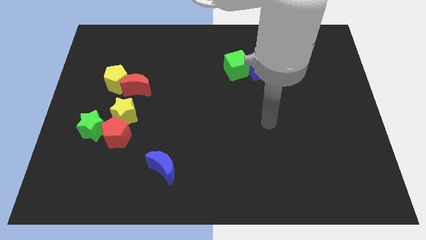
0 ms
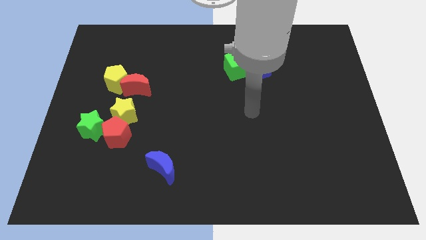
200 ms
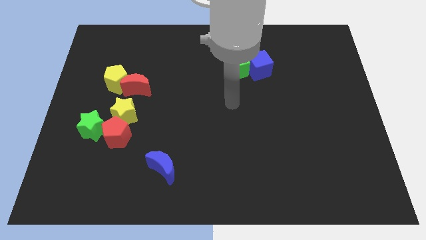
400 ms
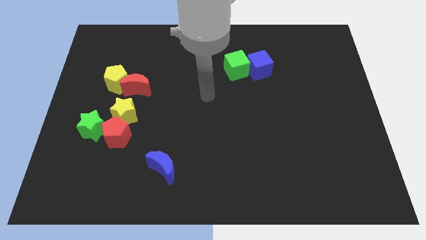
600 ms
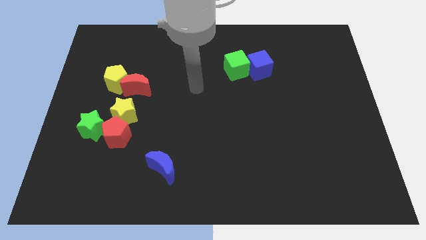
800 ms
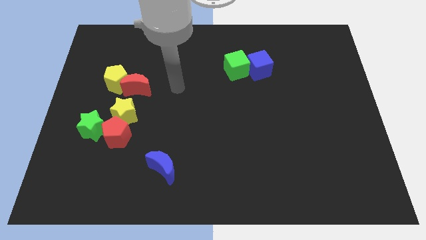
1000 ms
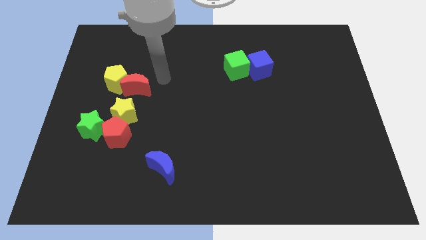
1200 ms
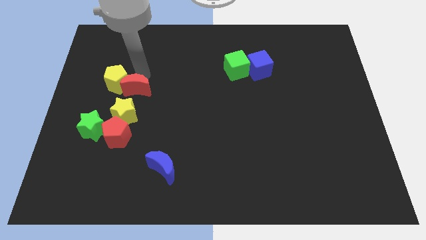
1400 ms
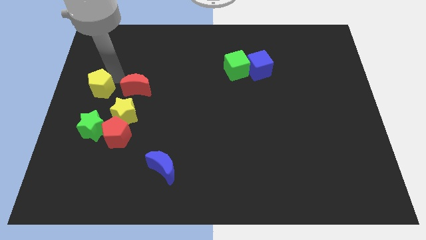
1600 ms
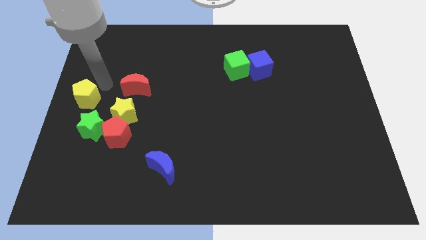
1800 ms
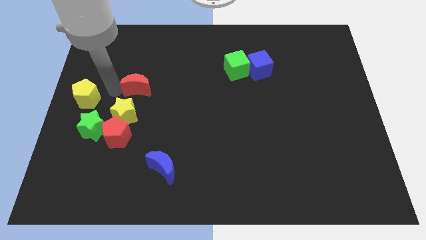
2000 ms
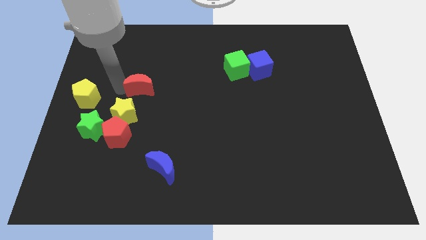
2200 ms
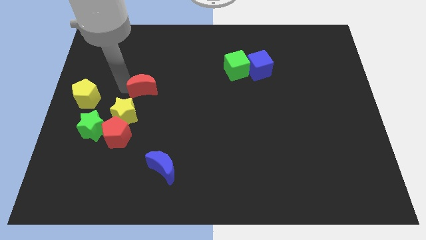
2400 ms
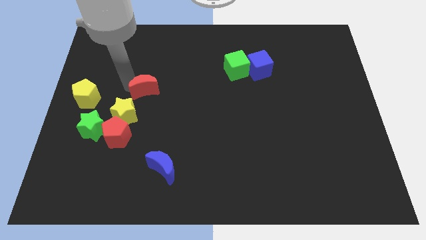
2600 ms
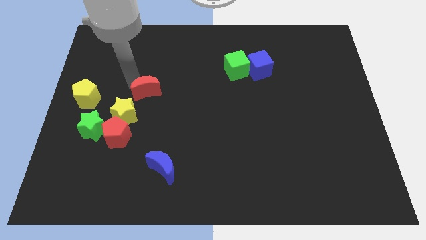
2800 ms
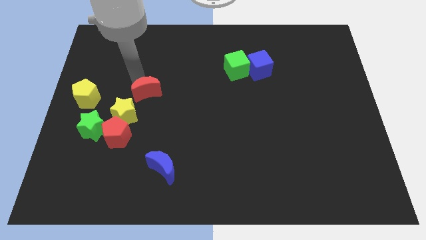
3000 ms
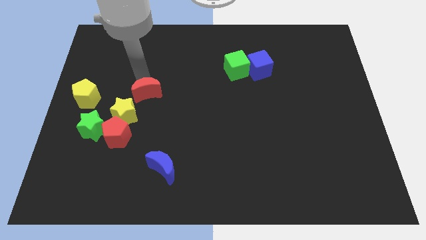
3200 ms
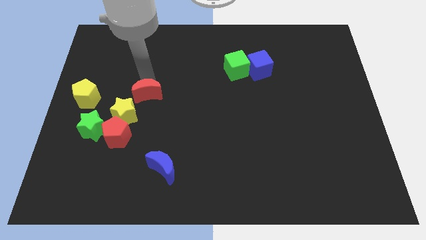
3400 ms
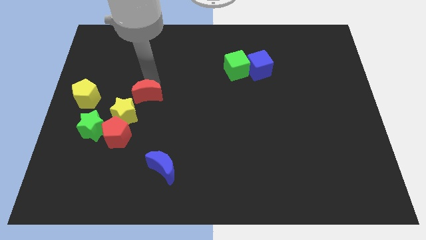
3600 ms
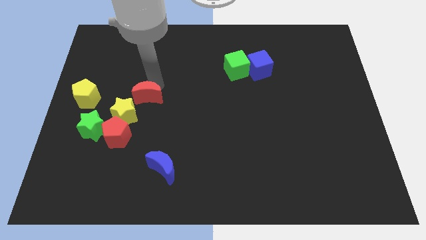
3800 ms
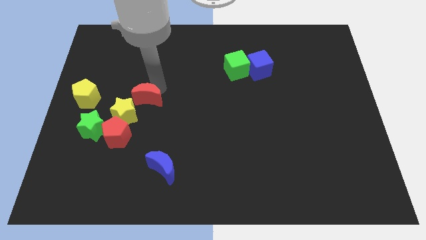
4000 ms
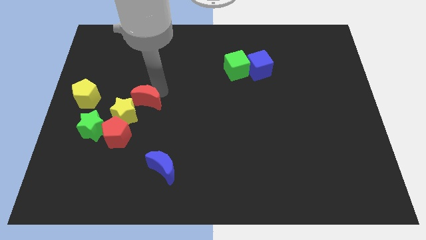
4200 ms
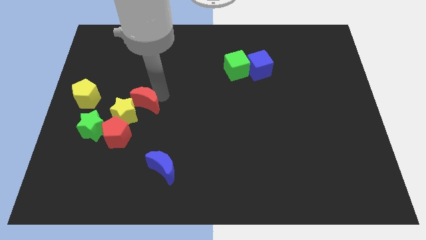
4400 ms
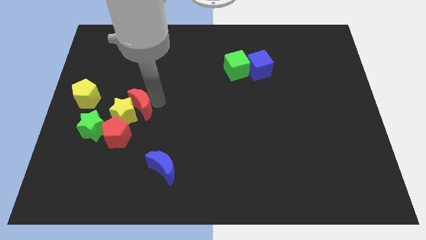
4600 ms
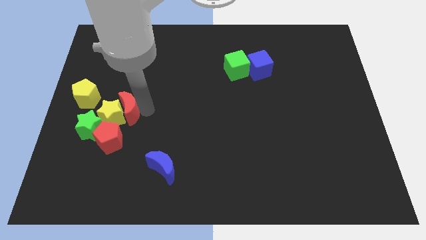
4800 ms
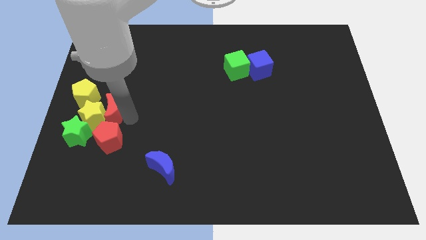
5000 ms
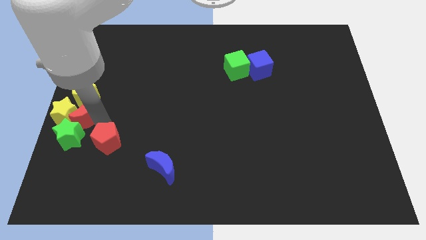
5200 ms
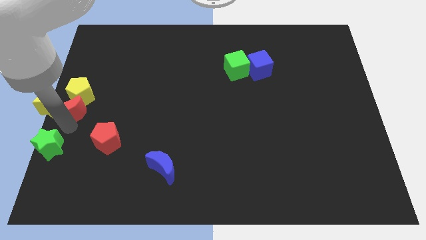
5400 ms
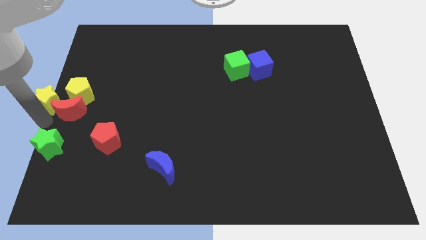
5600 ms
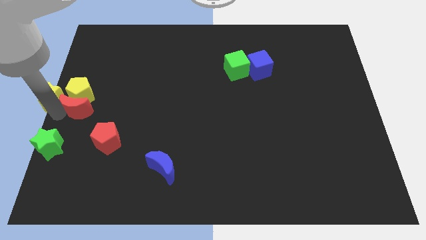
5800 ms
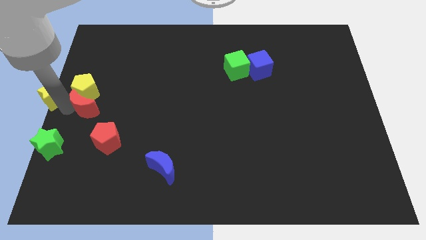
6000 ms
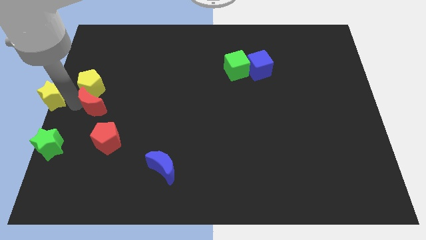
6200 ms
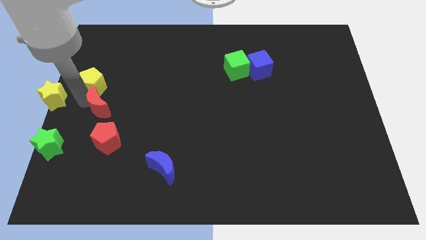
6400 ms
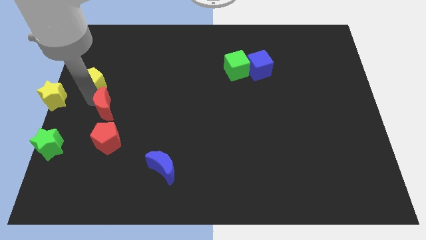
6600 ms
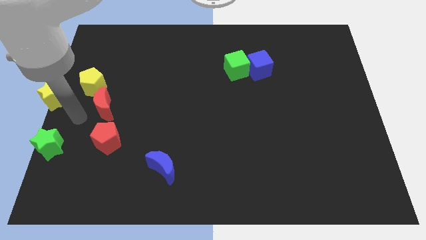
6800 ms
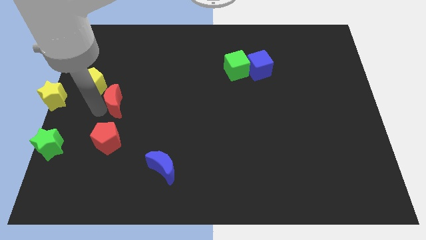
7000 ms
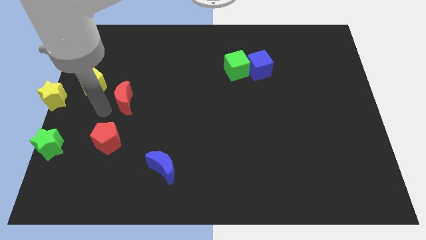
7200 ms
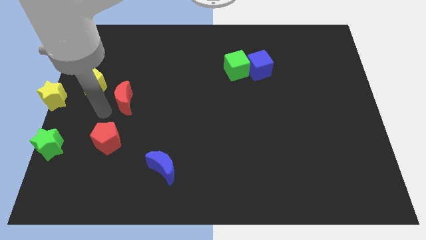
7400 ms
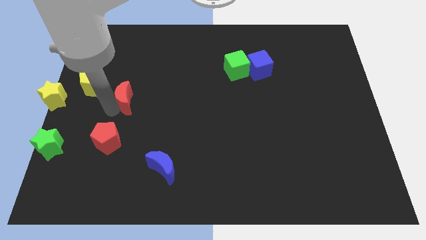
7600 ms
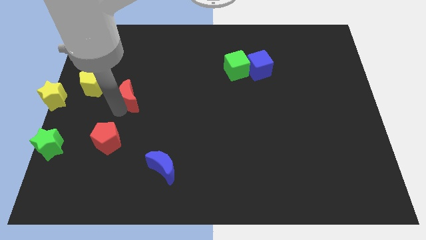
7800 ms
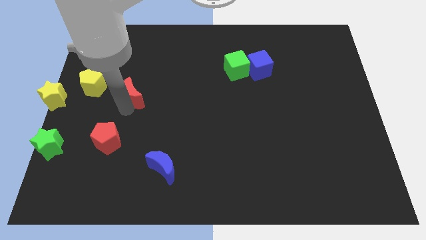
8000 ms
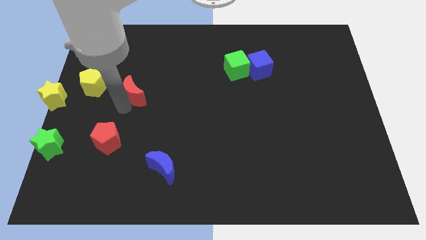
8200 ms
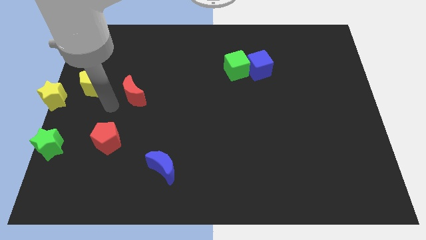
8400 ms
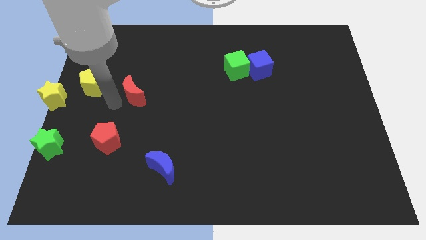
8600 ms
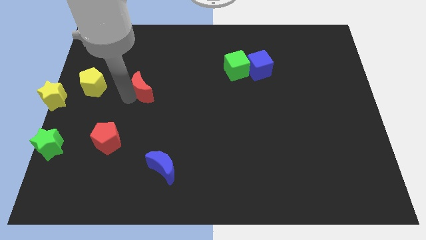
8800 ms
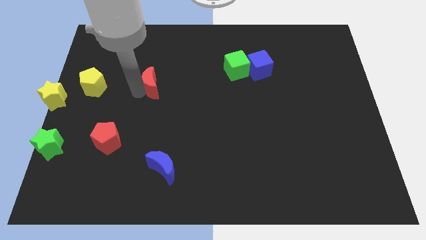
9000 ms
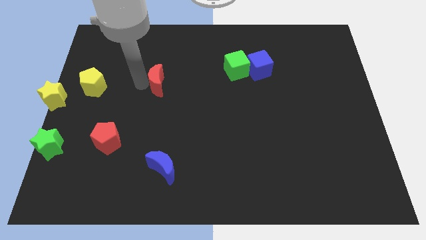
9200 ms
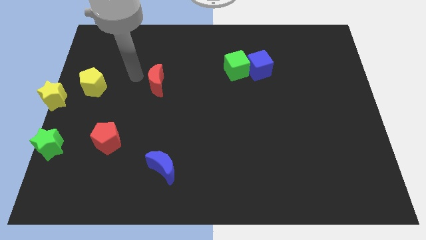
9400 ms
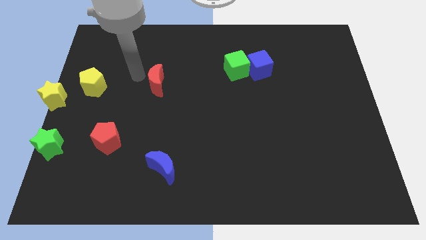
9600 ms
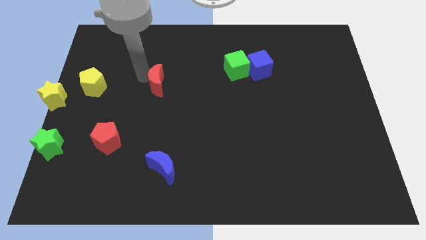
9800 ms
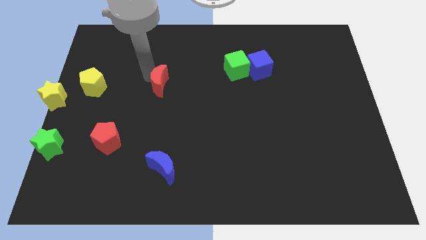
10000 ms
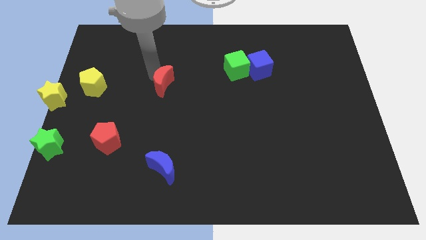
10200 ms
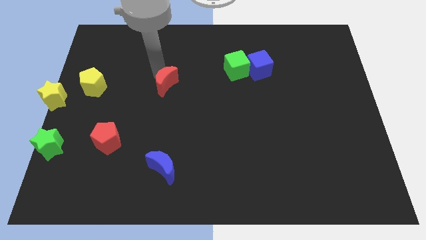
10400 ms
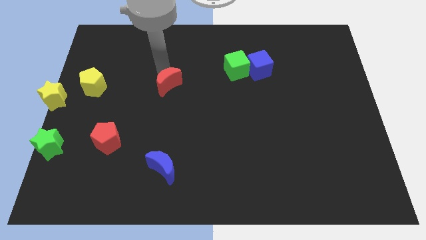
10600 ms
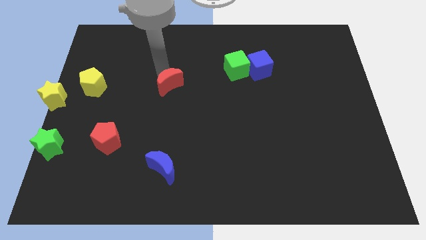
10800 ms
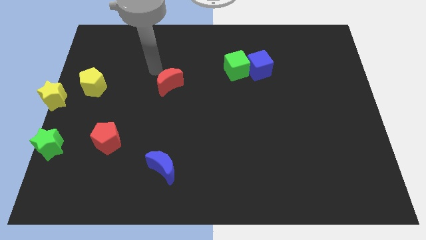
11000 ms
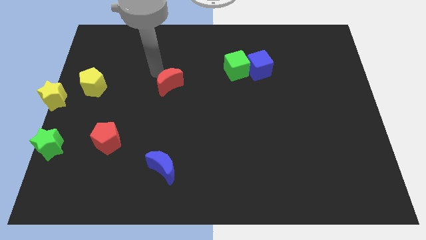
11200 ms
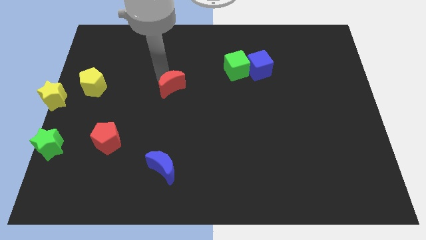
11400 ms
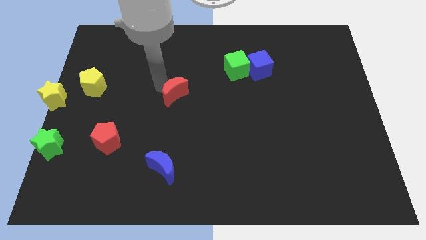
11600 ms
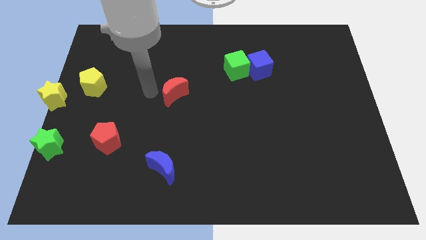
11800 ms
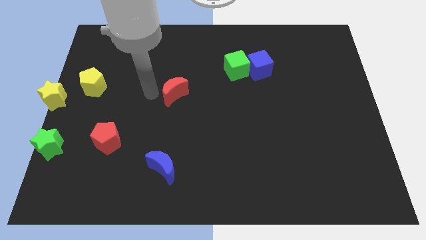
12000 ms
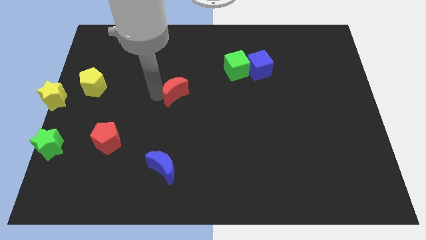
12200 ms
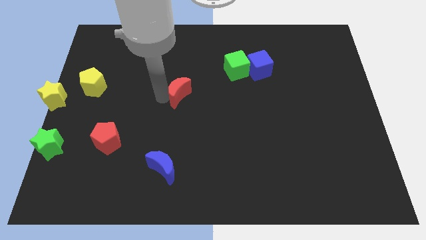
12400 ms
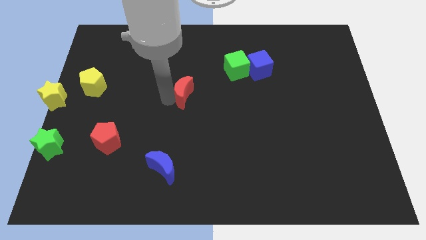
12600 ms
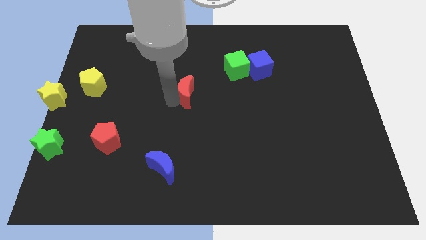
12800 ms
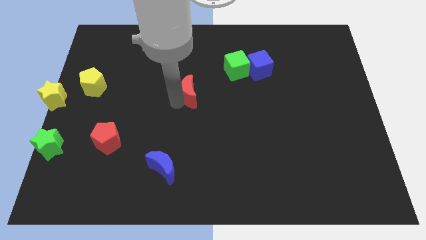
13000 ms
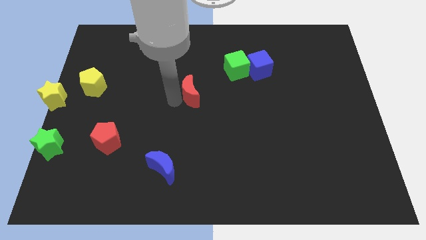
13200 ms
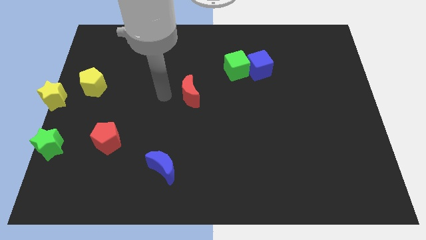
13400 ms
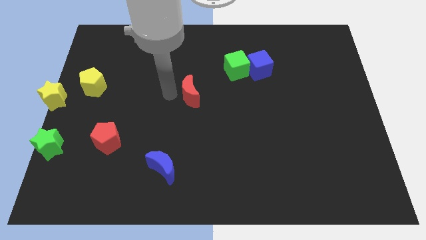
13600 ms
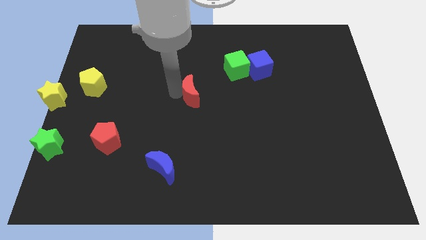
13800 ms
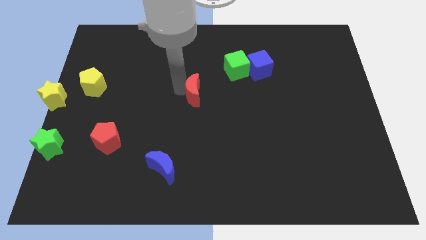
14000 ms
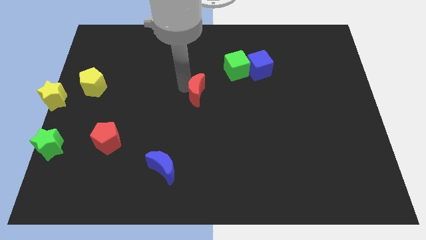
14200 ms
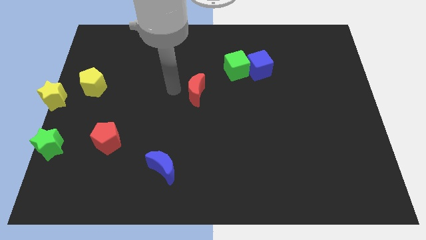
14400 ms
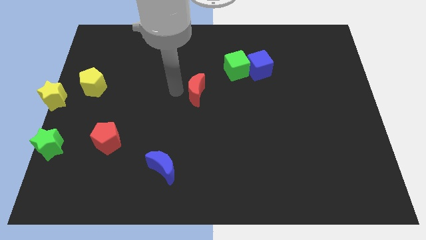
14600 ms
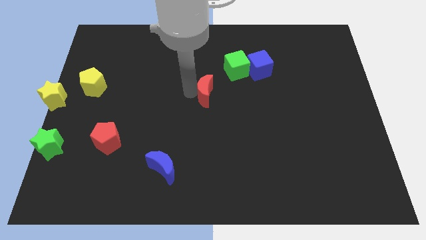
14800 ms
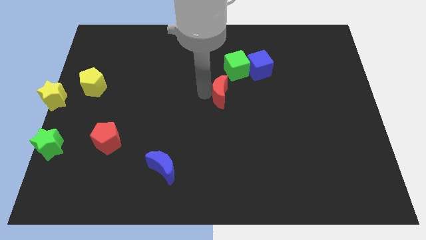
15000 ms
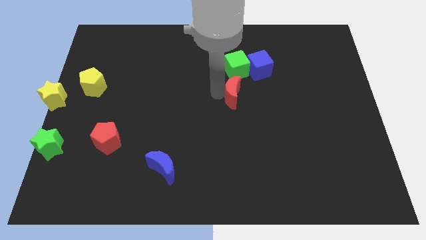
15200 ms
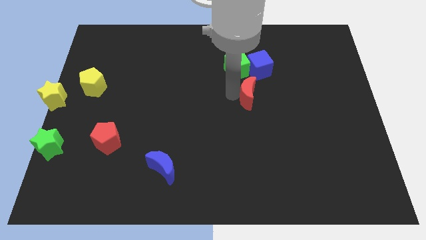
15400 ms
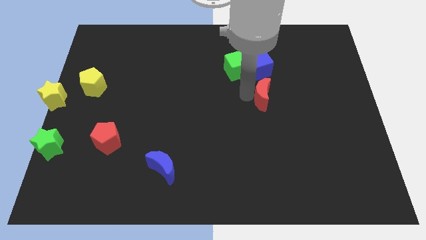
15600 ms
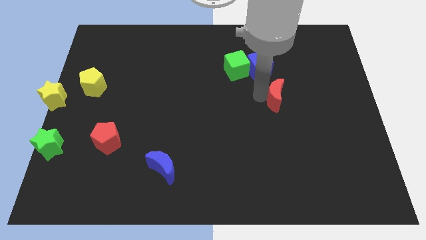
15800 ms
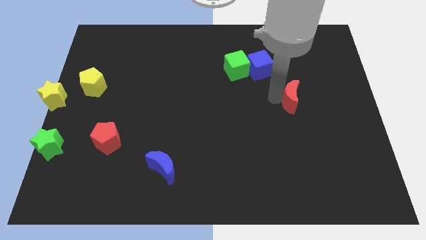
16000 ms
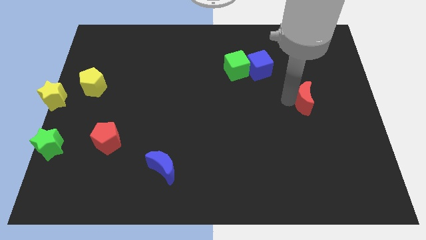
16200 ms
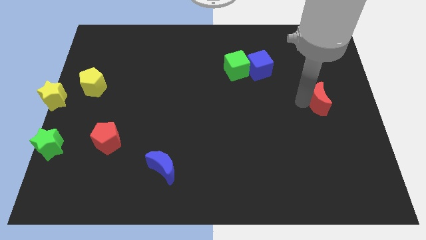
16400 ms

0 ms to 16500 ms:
slide the red moon to the center right
